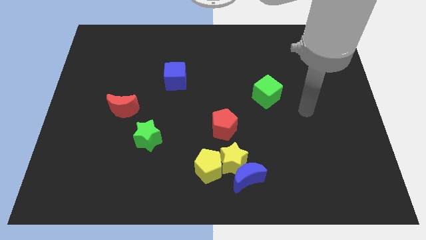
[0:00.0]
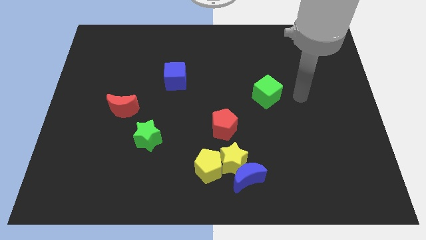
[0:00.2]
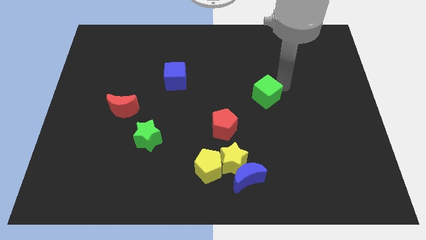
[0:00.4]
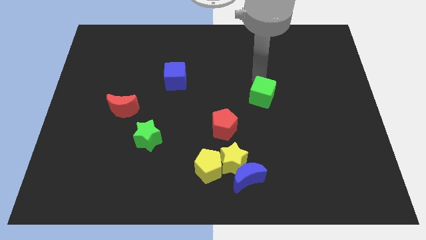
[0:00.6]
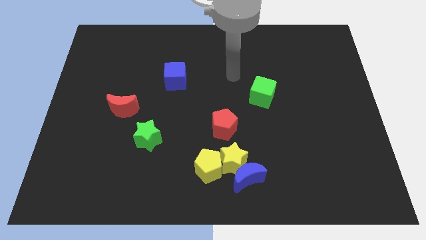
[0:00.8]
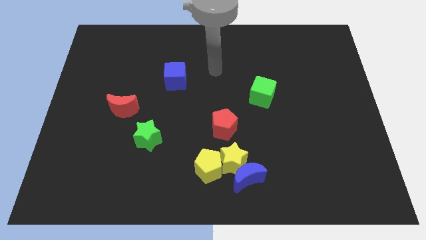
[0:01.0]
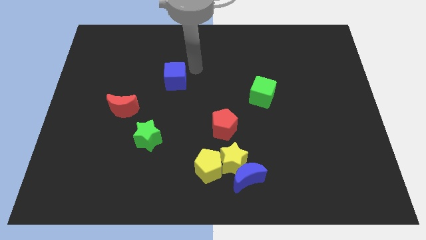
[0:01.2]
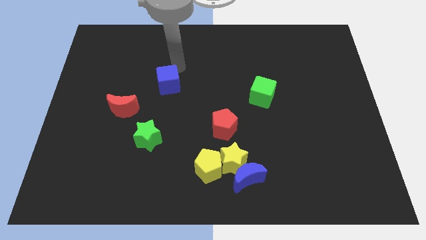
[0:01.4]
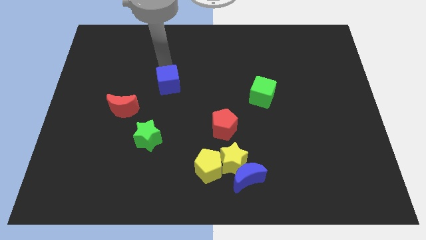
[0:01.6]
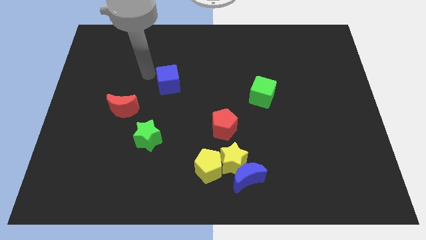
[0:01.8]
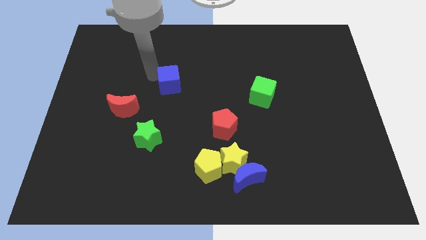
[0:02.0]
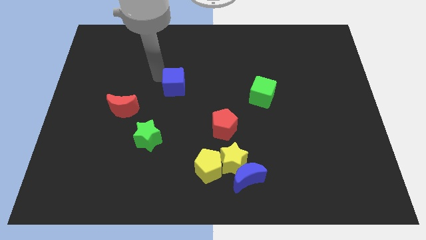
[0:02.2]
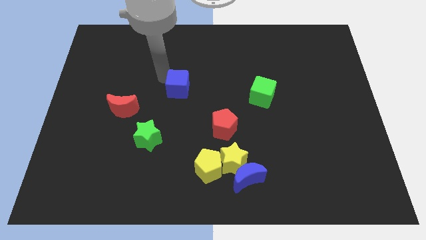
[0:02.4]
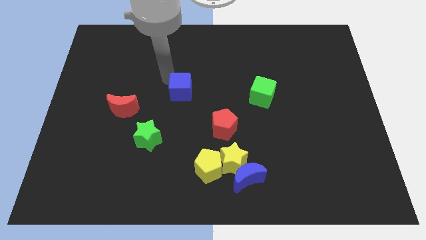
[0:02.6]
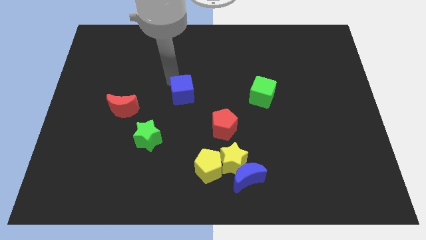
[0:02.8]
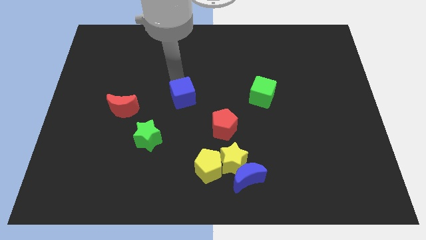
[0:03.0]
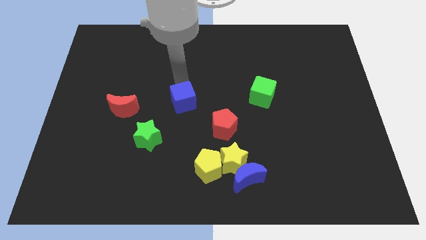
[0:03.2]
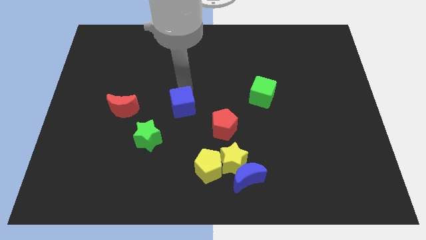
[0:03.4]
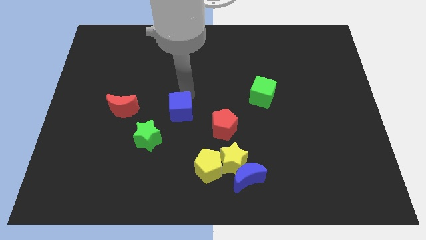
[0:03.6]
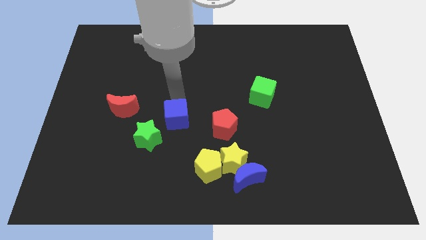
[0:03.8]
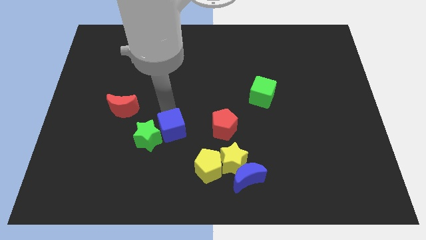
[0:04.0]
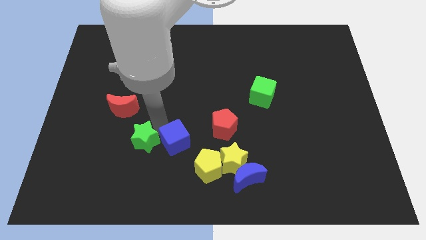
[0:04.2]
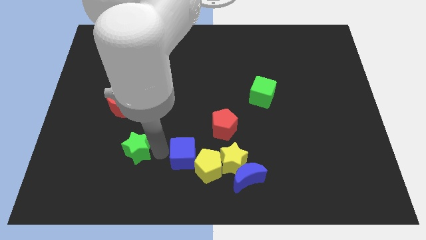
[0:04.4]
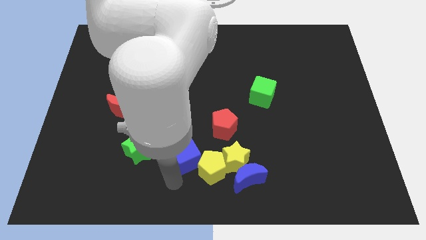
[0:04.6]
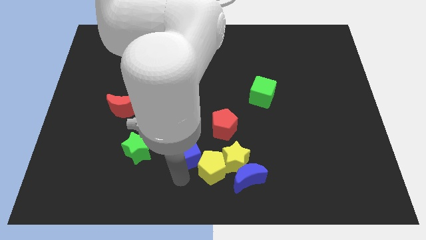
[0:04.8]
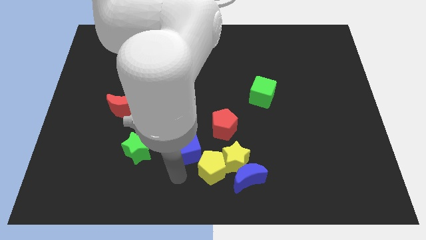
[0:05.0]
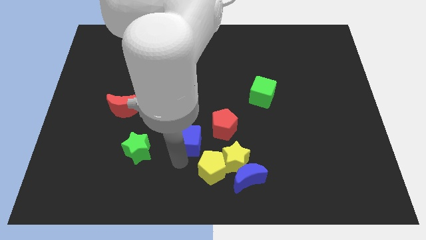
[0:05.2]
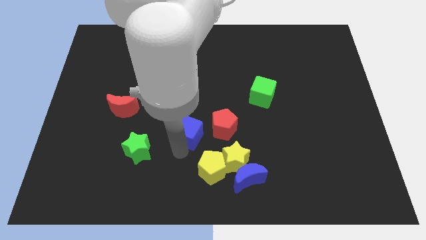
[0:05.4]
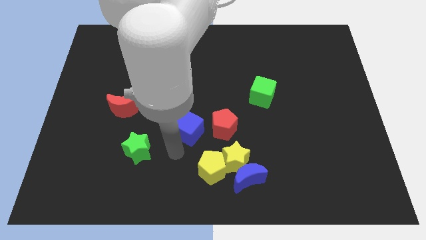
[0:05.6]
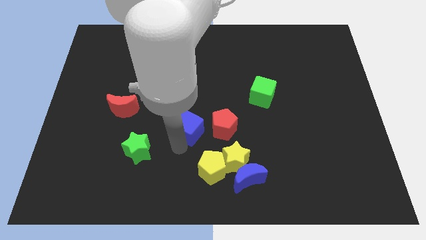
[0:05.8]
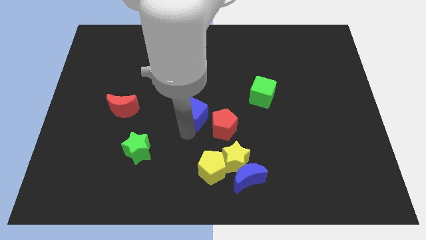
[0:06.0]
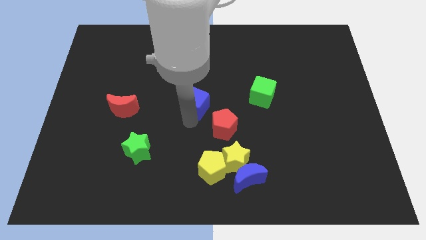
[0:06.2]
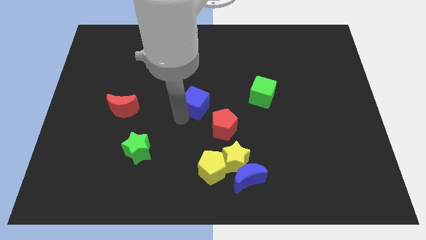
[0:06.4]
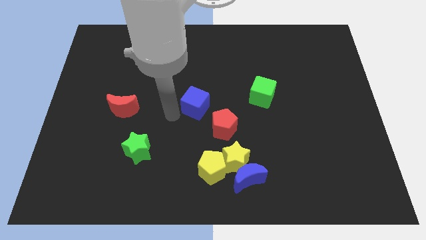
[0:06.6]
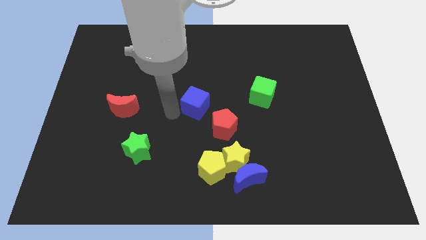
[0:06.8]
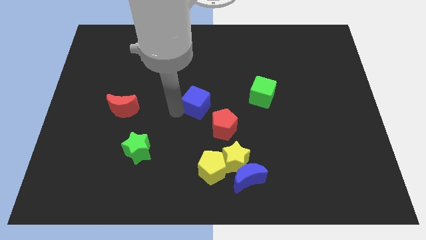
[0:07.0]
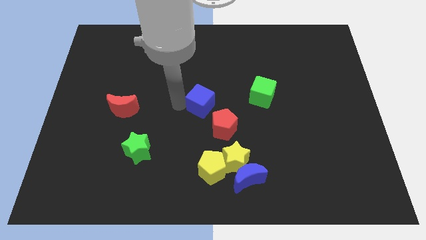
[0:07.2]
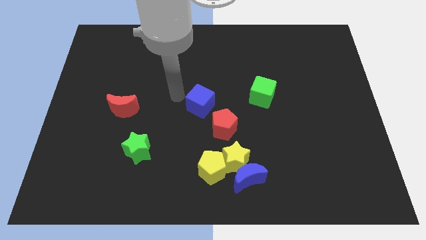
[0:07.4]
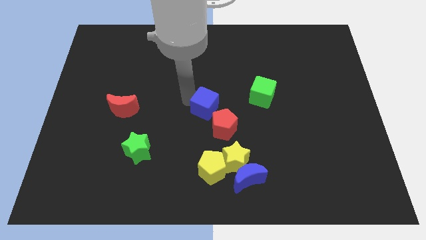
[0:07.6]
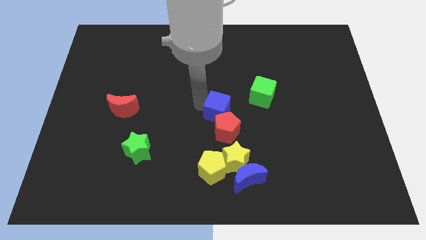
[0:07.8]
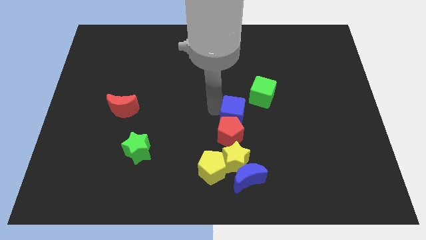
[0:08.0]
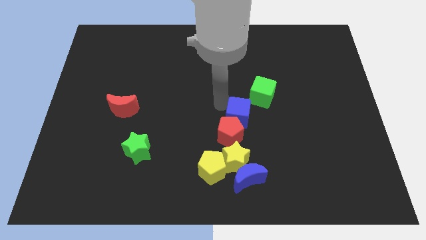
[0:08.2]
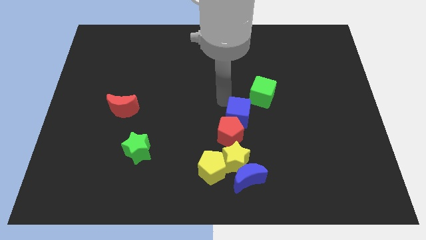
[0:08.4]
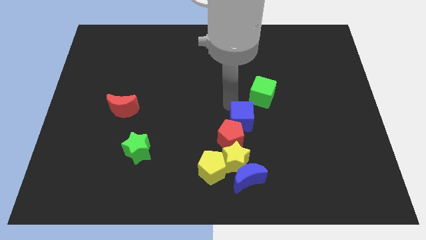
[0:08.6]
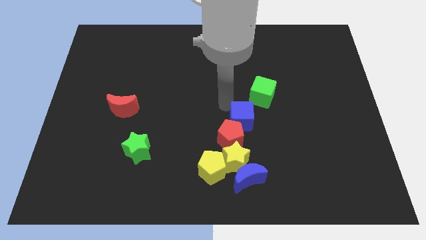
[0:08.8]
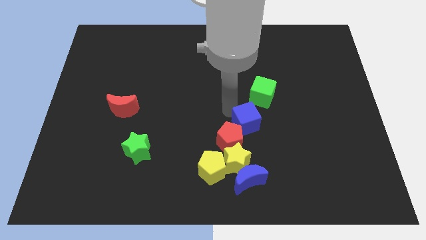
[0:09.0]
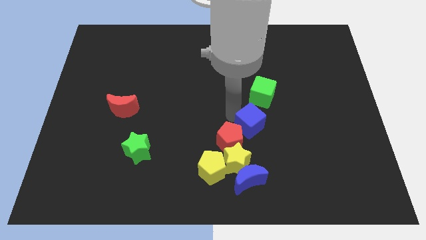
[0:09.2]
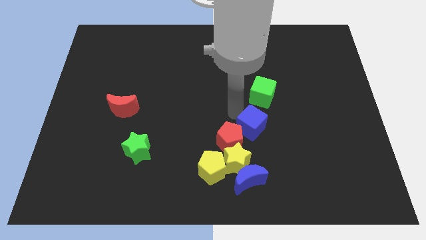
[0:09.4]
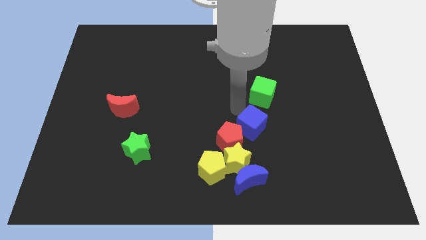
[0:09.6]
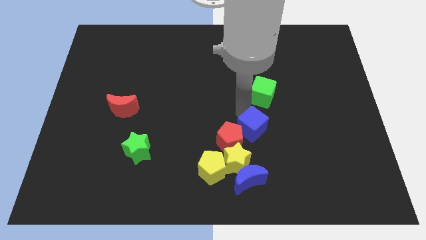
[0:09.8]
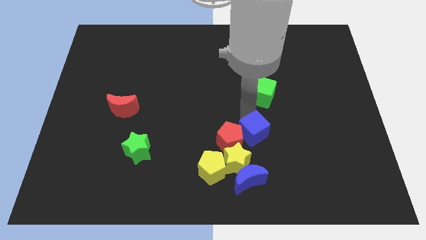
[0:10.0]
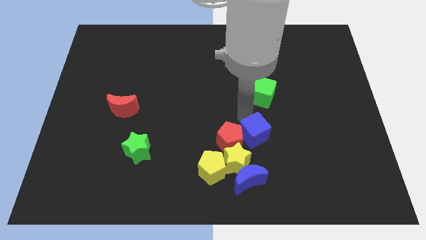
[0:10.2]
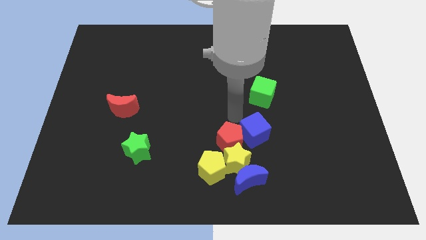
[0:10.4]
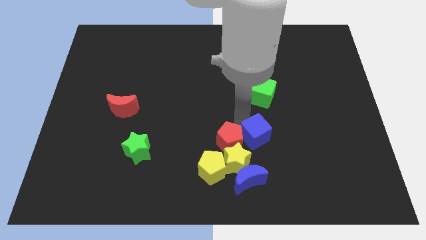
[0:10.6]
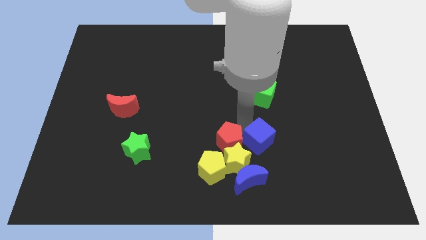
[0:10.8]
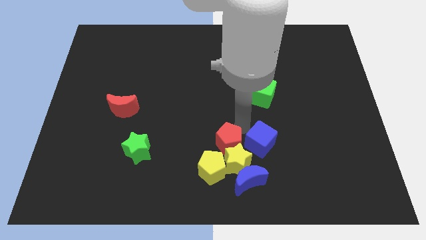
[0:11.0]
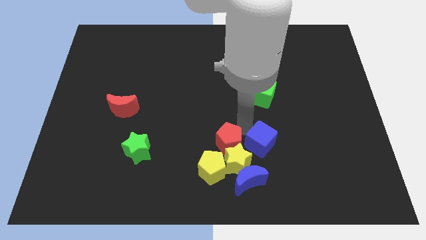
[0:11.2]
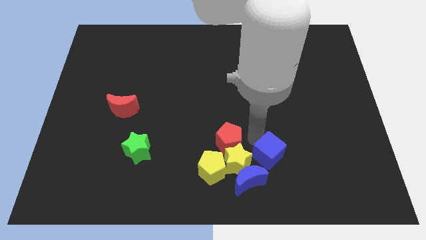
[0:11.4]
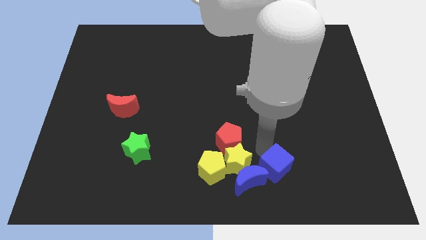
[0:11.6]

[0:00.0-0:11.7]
move the blue cube to the right side of the blue moon
